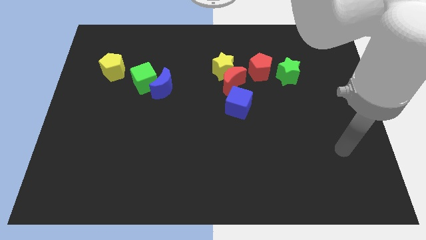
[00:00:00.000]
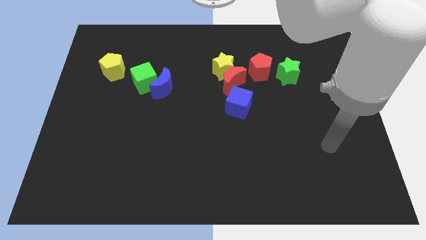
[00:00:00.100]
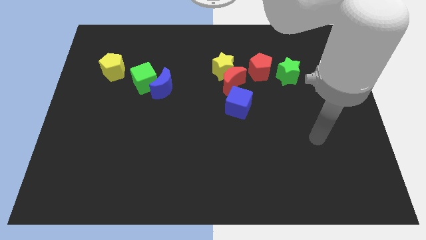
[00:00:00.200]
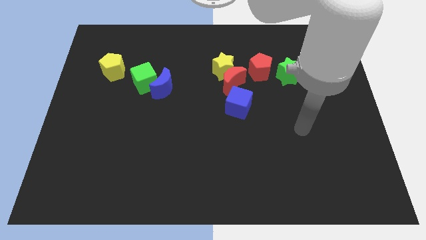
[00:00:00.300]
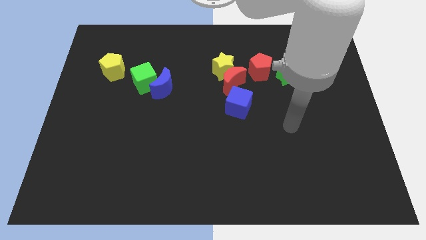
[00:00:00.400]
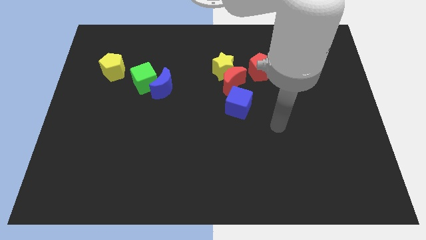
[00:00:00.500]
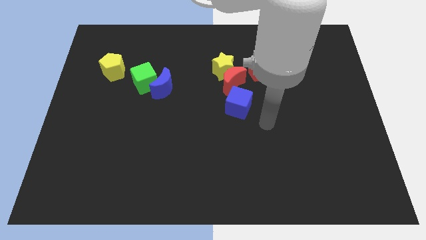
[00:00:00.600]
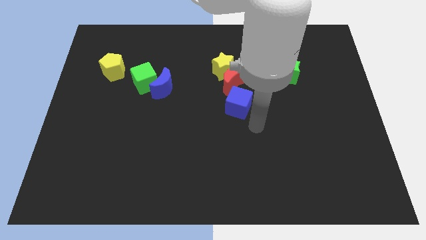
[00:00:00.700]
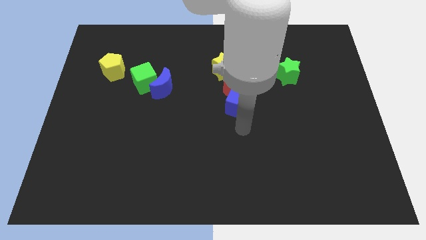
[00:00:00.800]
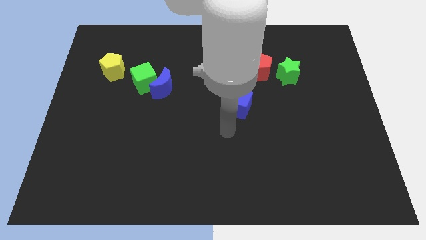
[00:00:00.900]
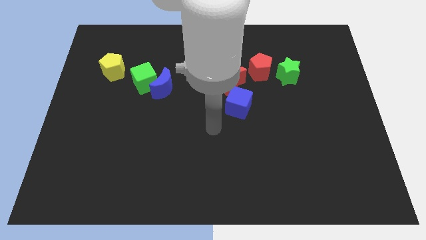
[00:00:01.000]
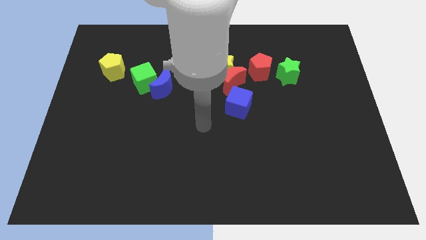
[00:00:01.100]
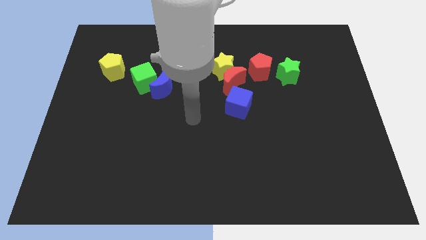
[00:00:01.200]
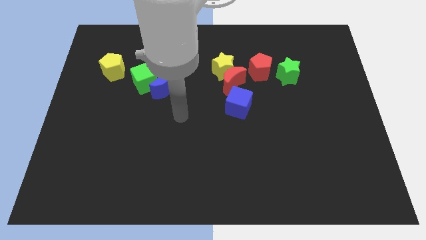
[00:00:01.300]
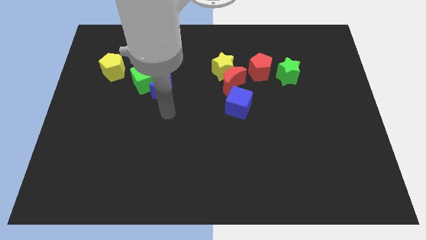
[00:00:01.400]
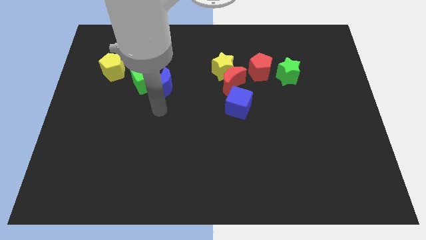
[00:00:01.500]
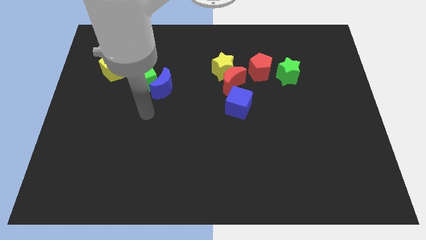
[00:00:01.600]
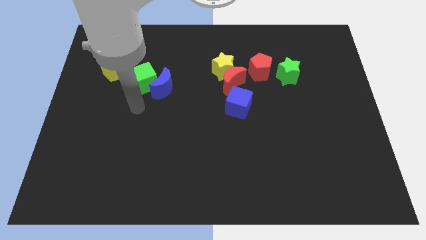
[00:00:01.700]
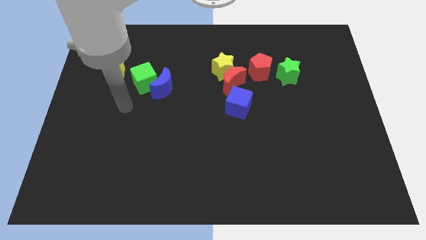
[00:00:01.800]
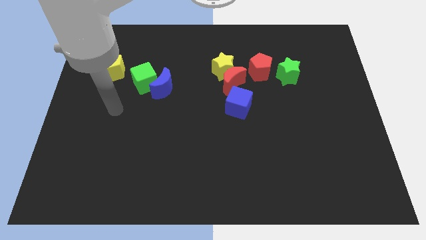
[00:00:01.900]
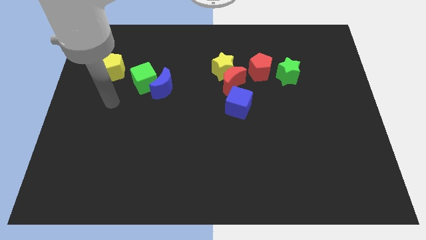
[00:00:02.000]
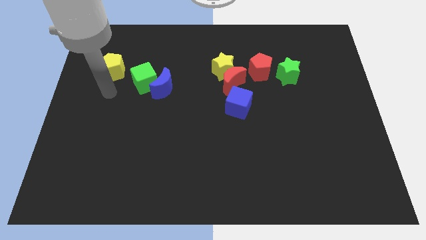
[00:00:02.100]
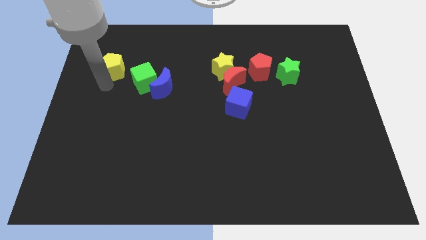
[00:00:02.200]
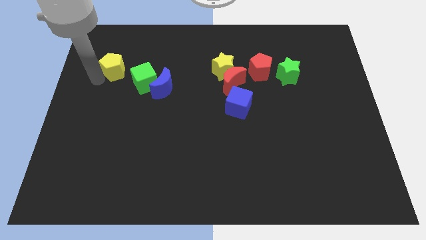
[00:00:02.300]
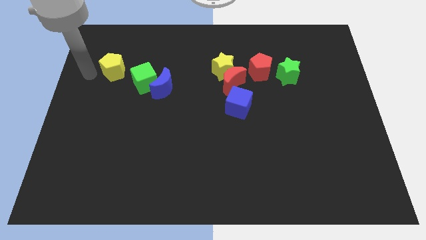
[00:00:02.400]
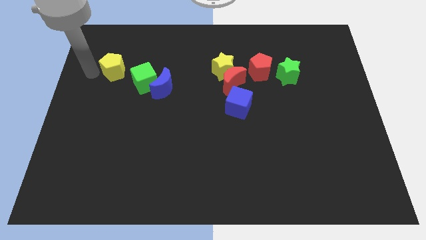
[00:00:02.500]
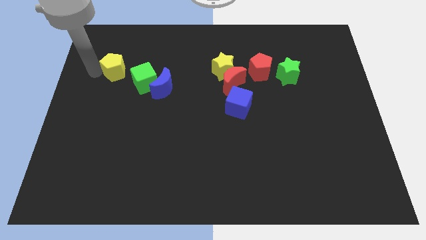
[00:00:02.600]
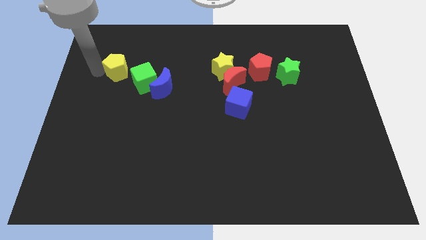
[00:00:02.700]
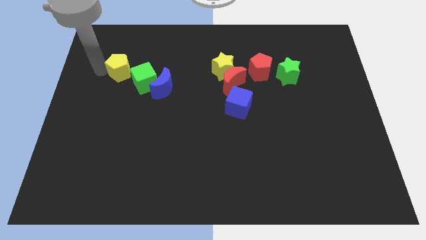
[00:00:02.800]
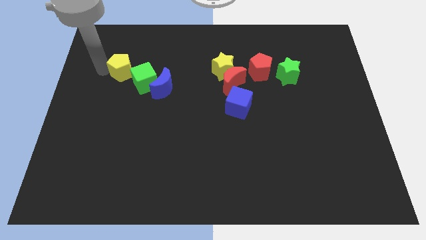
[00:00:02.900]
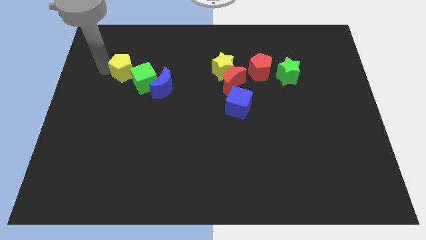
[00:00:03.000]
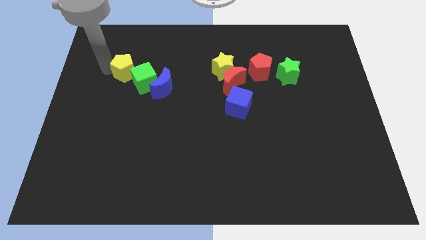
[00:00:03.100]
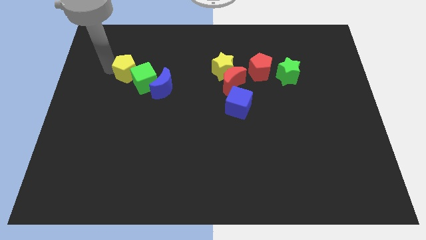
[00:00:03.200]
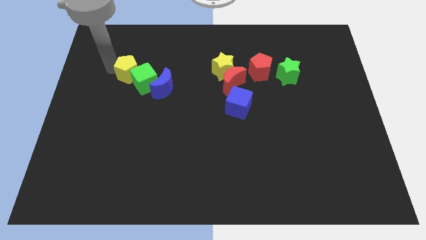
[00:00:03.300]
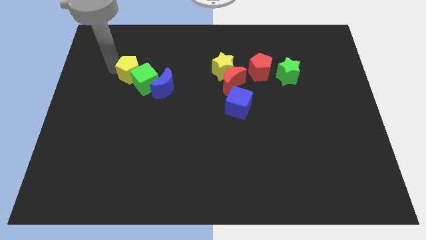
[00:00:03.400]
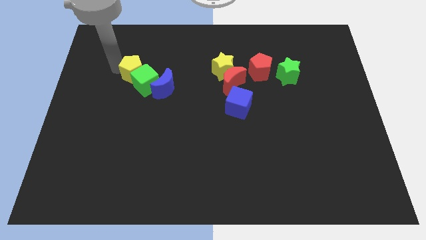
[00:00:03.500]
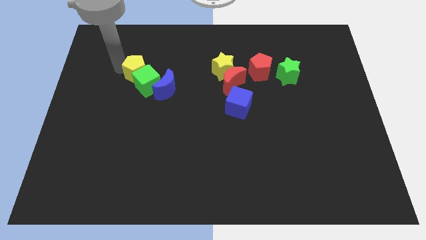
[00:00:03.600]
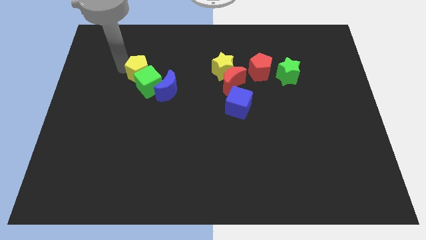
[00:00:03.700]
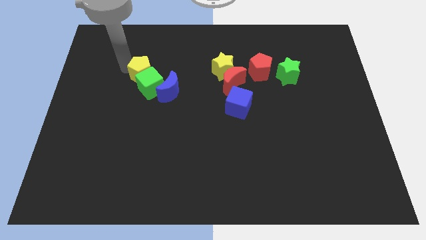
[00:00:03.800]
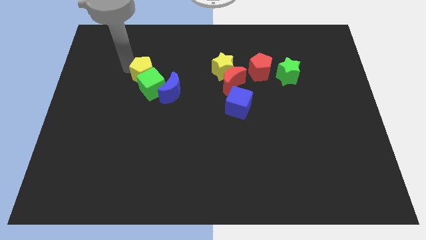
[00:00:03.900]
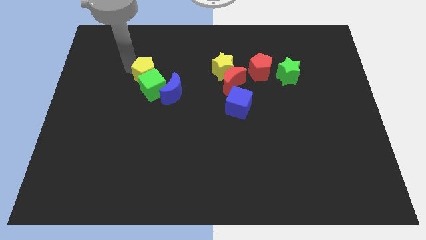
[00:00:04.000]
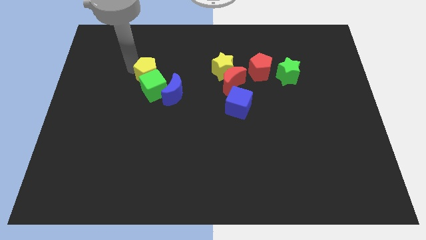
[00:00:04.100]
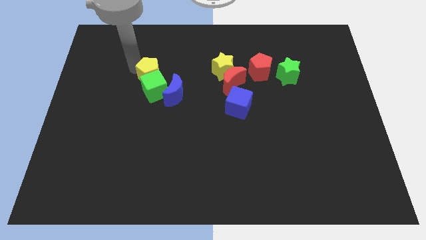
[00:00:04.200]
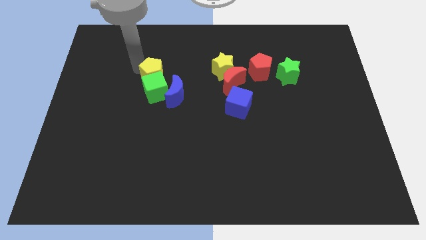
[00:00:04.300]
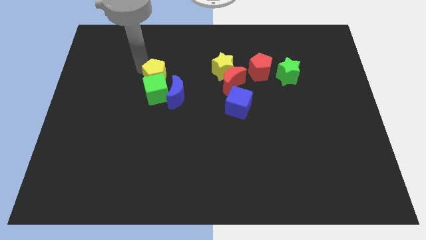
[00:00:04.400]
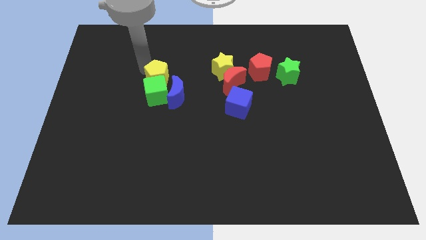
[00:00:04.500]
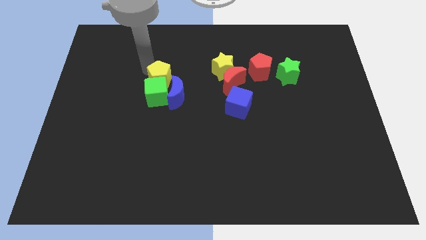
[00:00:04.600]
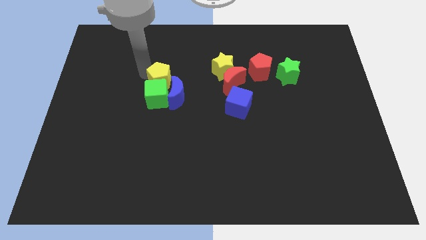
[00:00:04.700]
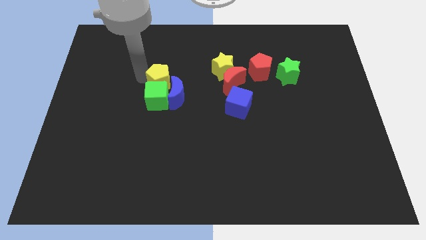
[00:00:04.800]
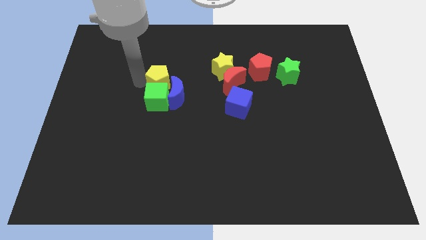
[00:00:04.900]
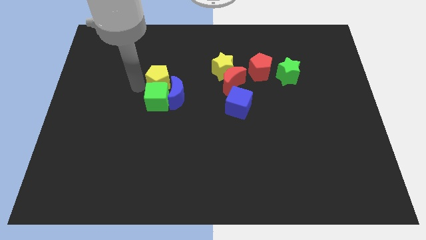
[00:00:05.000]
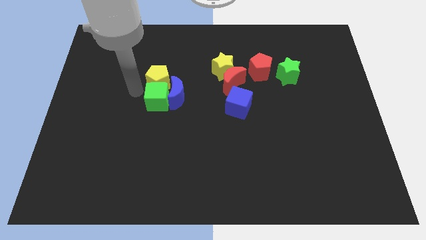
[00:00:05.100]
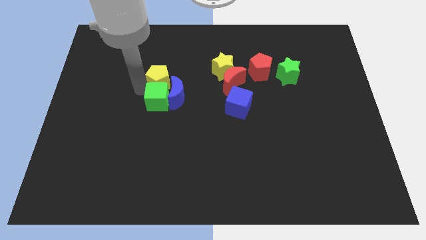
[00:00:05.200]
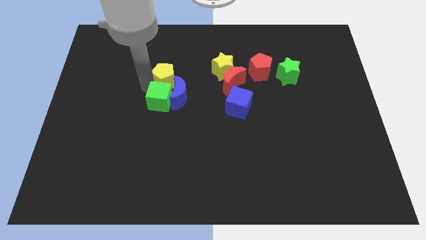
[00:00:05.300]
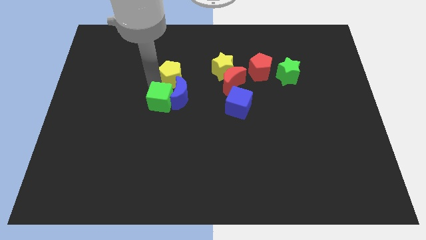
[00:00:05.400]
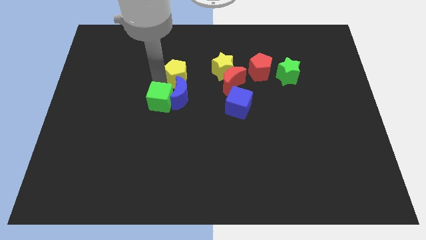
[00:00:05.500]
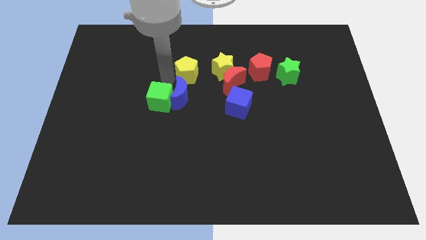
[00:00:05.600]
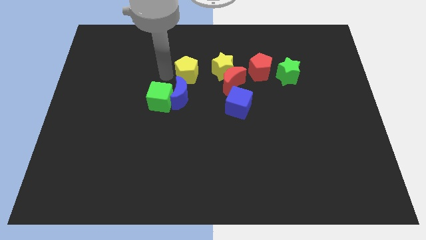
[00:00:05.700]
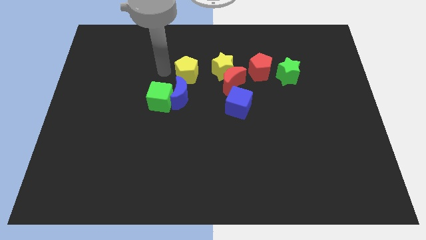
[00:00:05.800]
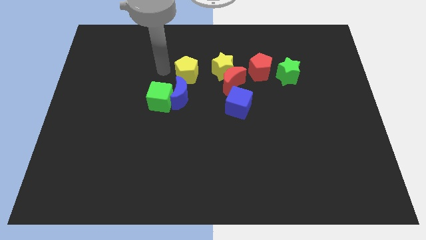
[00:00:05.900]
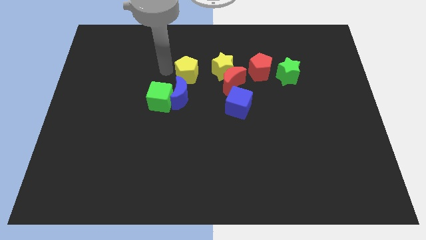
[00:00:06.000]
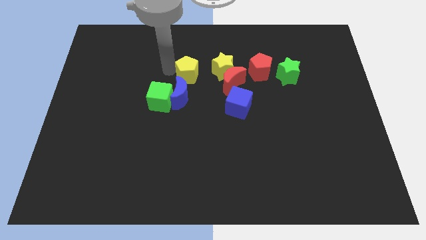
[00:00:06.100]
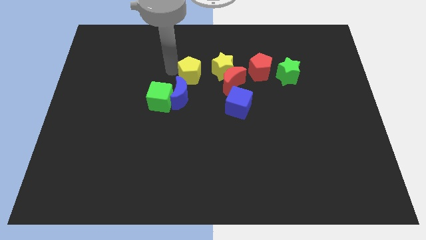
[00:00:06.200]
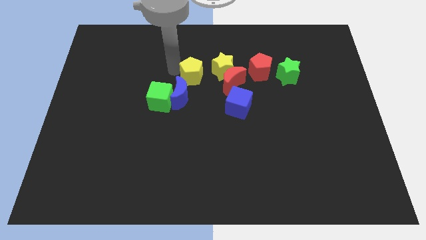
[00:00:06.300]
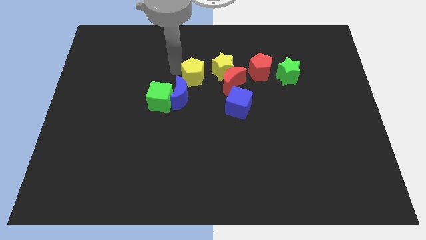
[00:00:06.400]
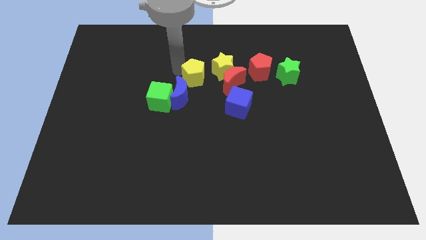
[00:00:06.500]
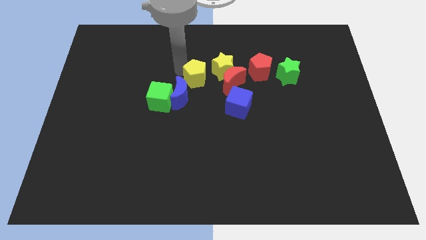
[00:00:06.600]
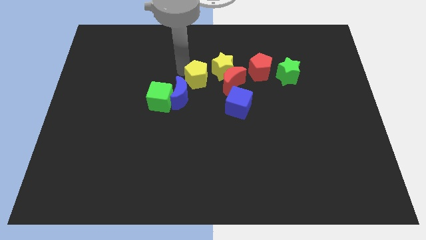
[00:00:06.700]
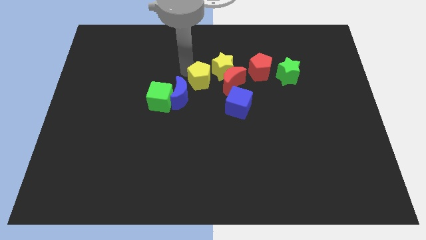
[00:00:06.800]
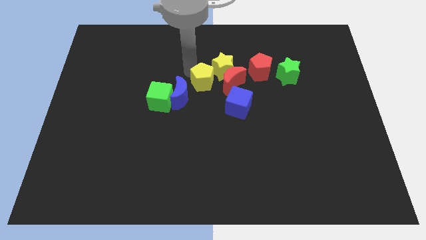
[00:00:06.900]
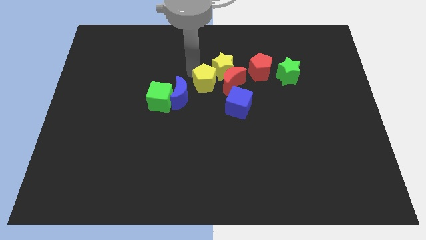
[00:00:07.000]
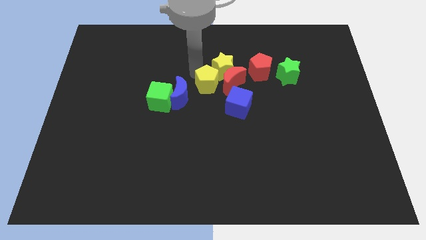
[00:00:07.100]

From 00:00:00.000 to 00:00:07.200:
push the yellow pentagon towards the red moon
